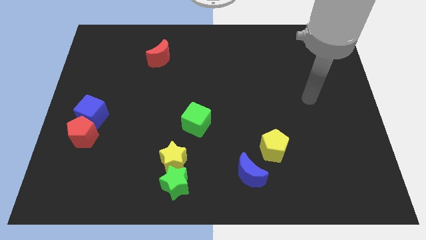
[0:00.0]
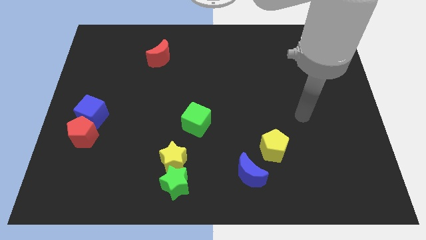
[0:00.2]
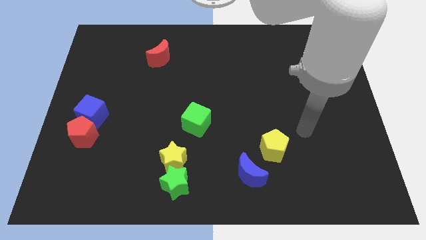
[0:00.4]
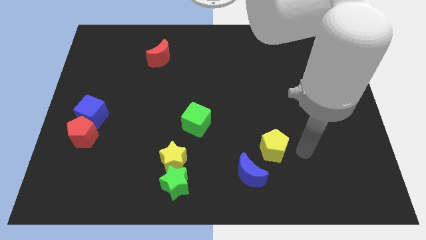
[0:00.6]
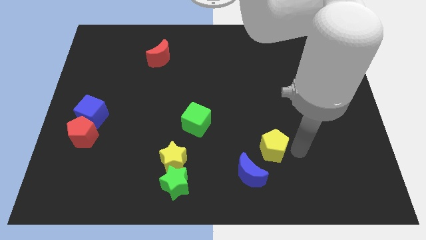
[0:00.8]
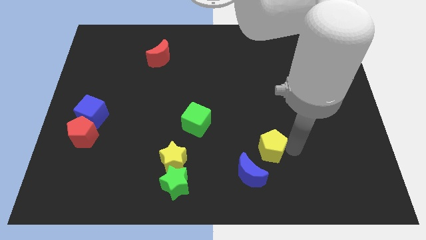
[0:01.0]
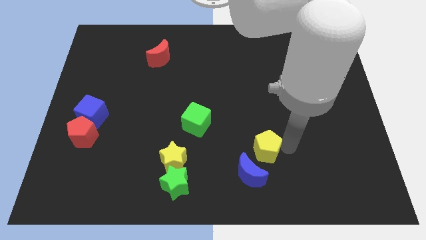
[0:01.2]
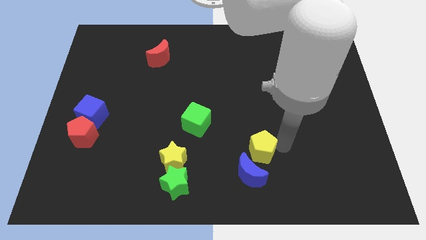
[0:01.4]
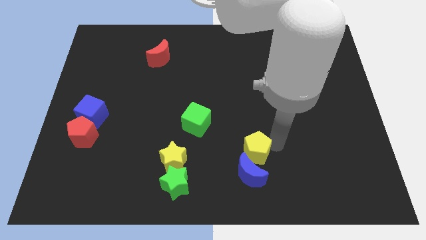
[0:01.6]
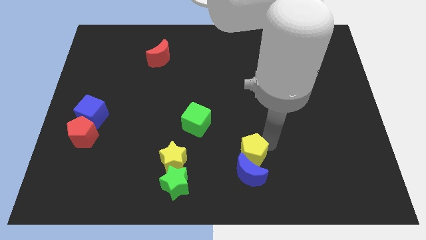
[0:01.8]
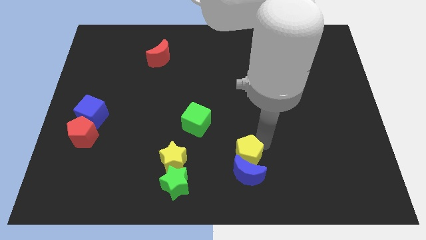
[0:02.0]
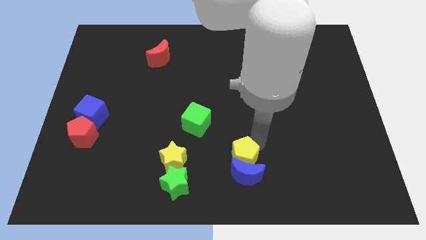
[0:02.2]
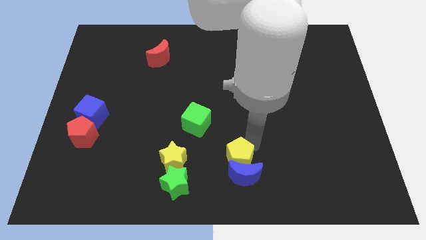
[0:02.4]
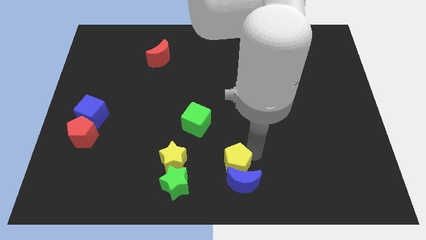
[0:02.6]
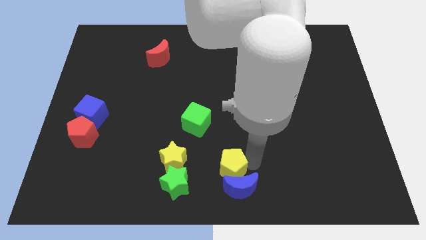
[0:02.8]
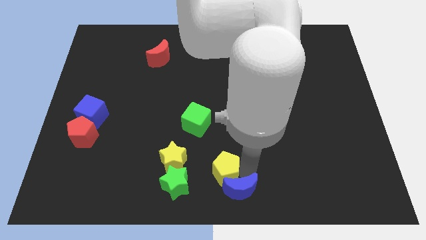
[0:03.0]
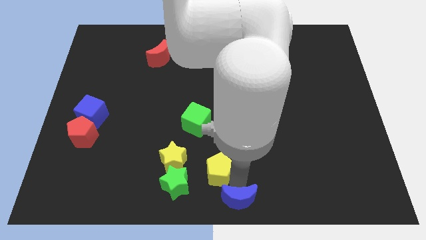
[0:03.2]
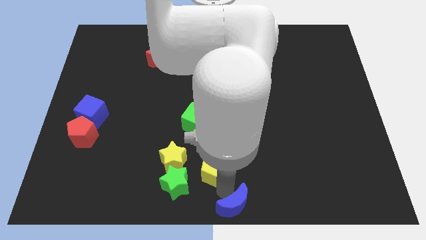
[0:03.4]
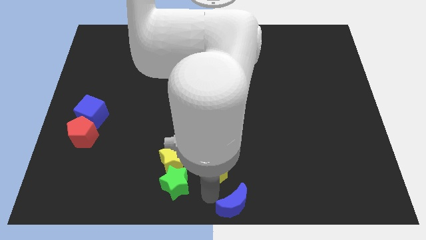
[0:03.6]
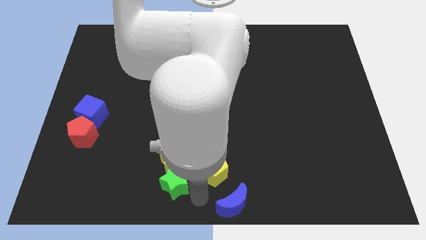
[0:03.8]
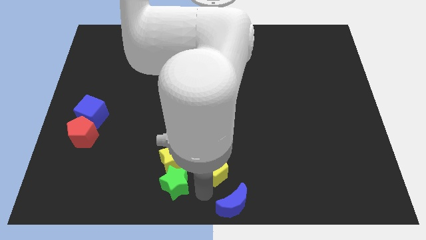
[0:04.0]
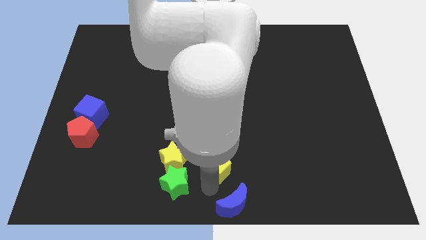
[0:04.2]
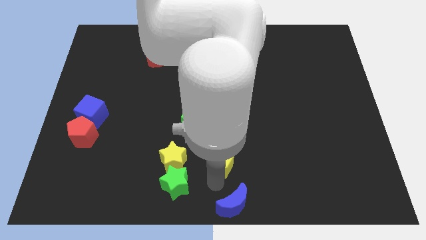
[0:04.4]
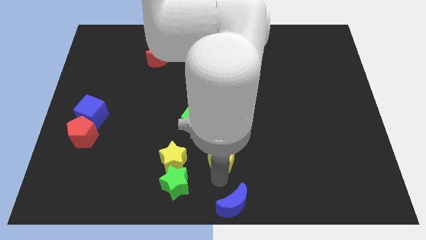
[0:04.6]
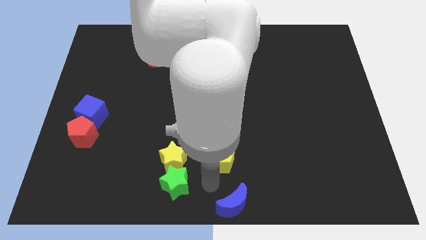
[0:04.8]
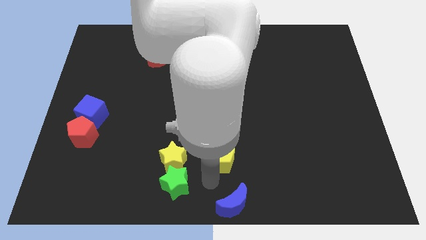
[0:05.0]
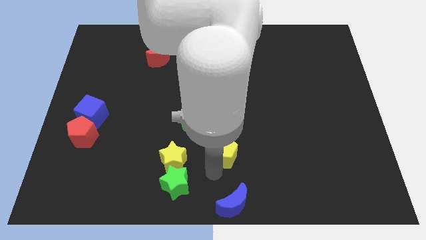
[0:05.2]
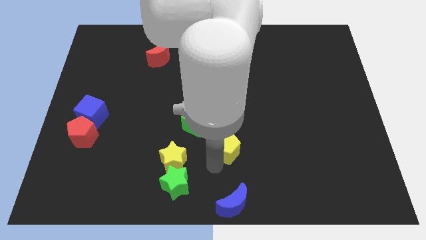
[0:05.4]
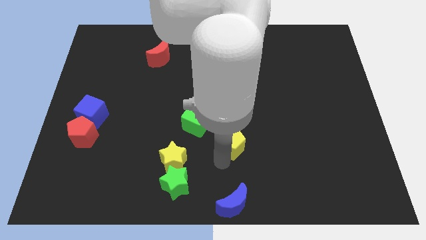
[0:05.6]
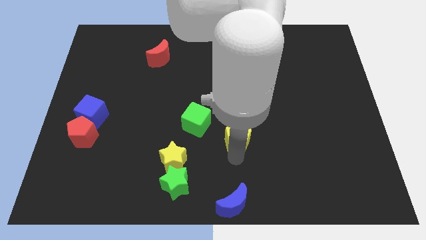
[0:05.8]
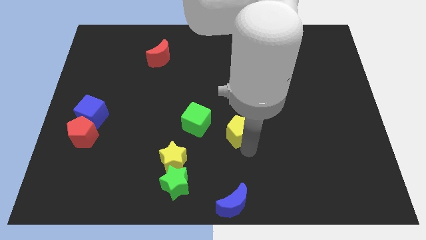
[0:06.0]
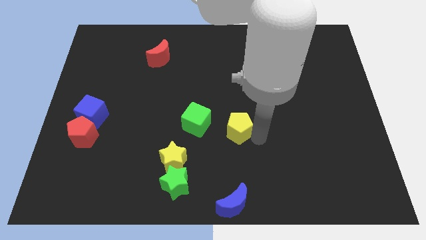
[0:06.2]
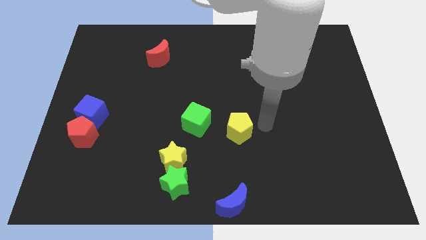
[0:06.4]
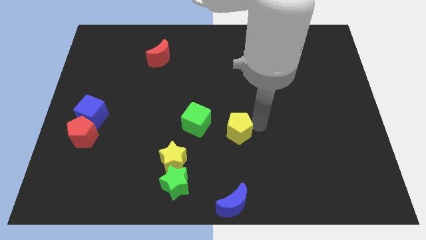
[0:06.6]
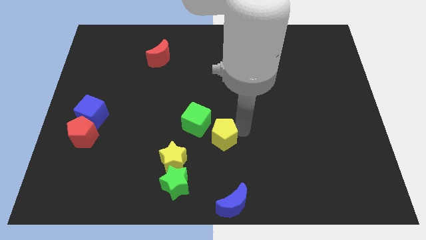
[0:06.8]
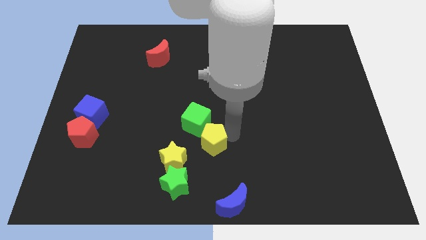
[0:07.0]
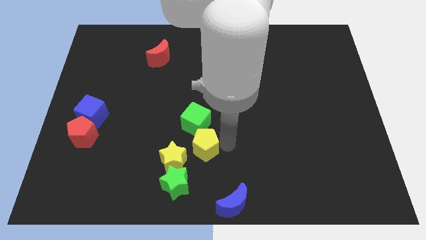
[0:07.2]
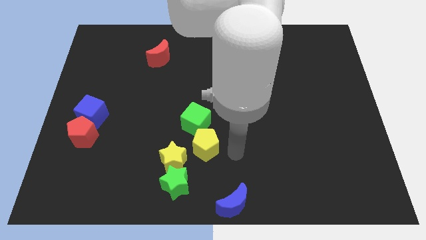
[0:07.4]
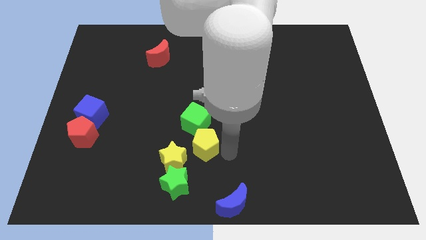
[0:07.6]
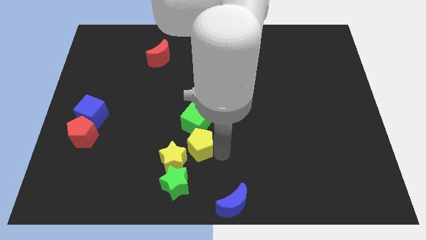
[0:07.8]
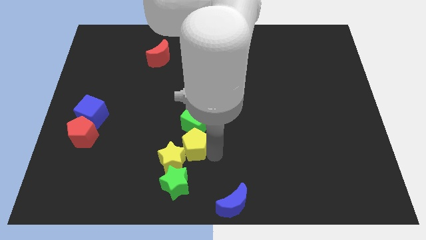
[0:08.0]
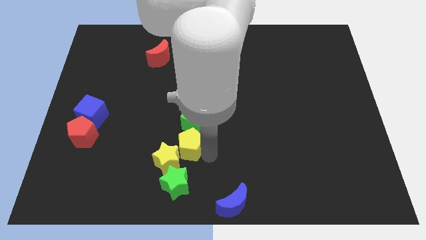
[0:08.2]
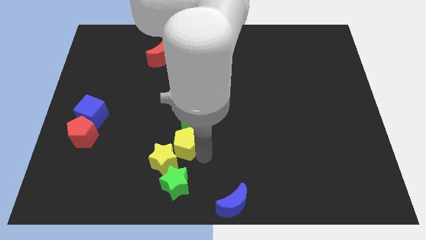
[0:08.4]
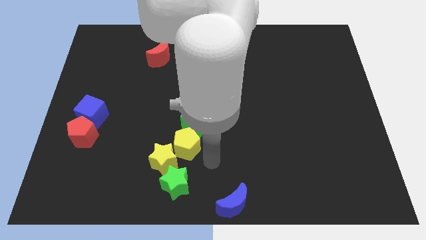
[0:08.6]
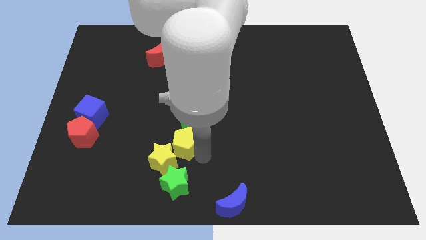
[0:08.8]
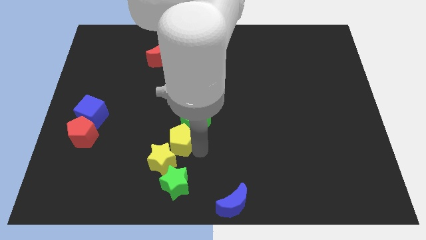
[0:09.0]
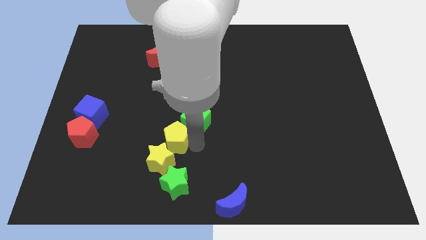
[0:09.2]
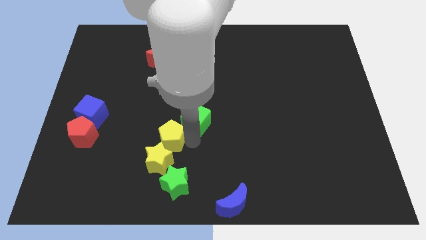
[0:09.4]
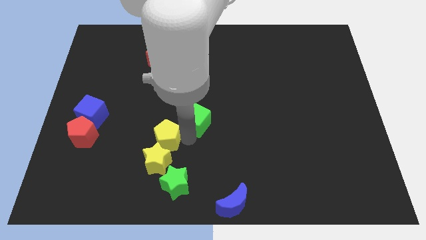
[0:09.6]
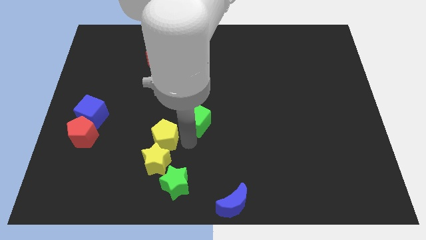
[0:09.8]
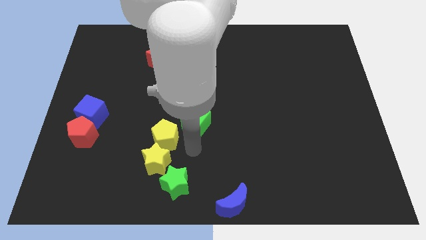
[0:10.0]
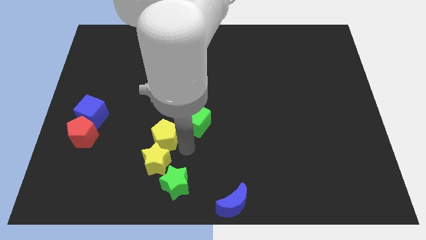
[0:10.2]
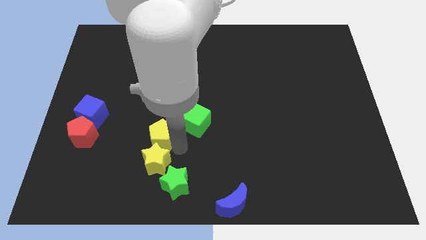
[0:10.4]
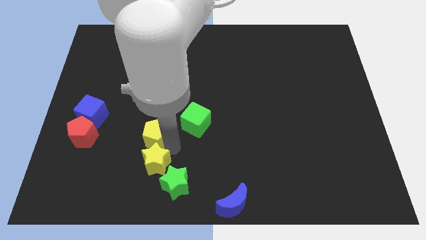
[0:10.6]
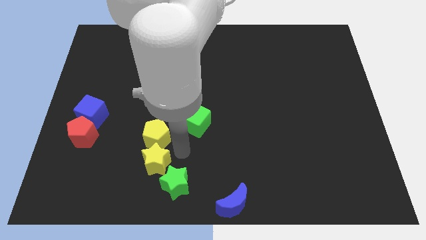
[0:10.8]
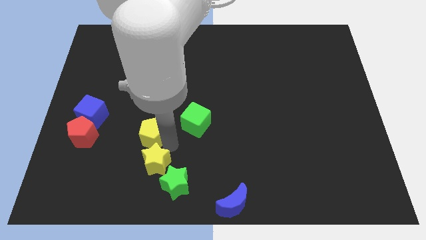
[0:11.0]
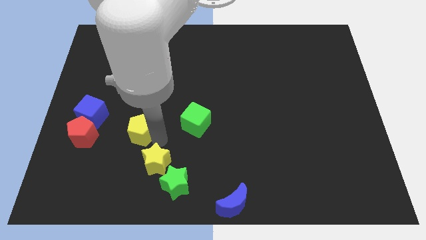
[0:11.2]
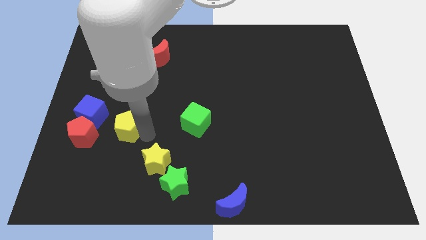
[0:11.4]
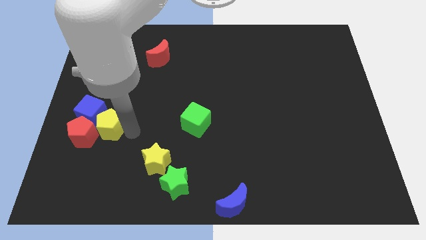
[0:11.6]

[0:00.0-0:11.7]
push the yellow pentagon towards the blue cube
